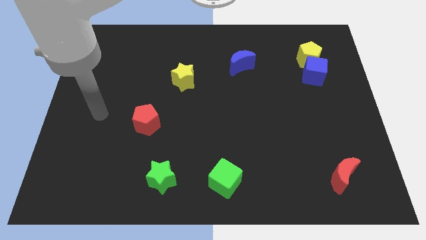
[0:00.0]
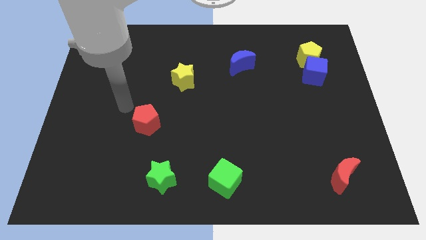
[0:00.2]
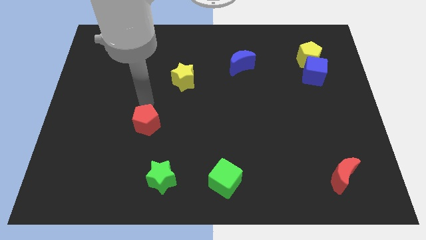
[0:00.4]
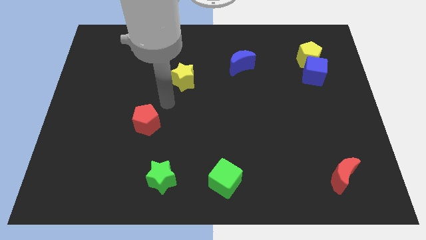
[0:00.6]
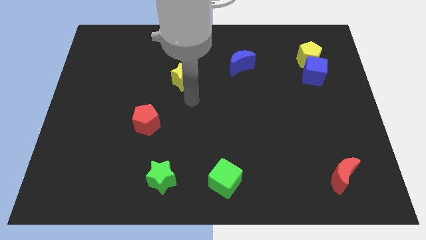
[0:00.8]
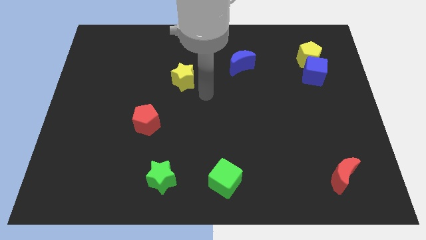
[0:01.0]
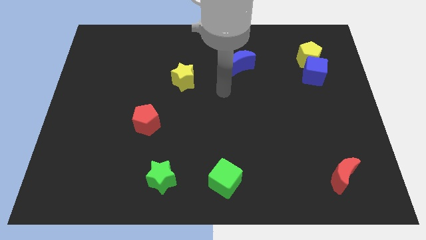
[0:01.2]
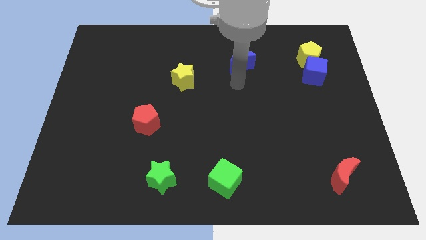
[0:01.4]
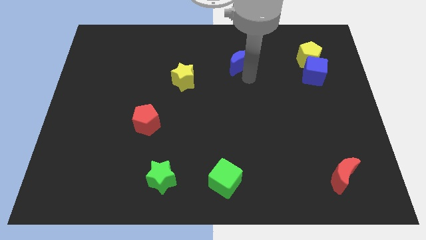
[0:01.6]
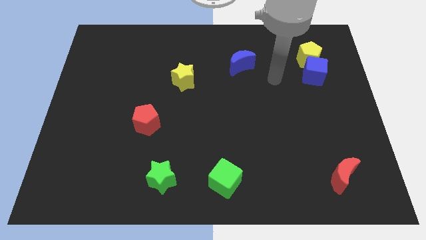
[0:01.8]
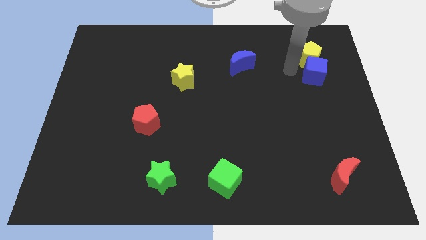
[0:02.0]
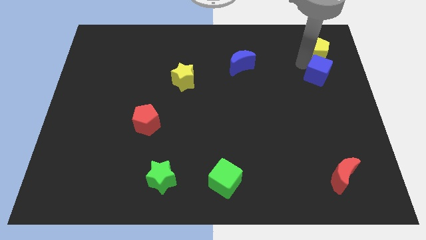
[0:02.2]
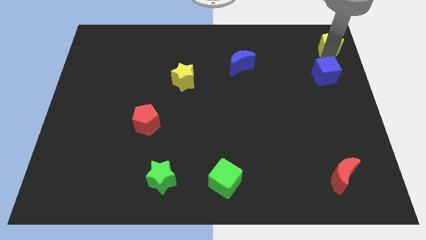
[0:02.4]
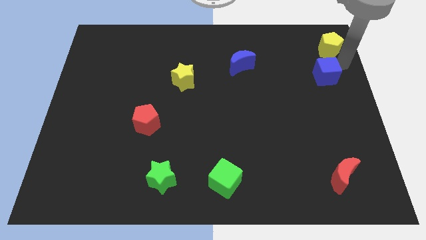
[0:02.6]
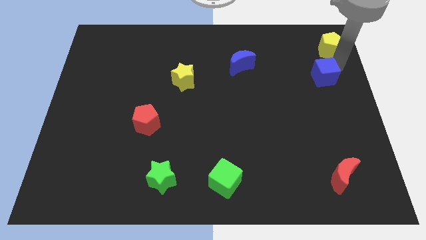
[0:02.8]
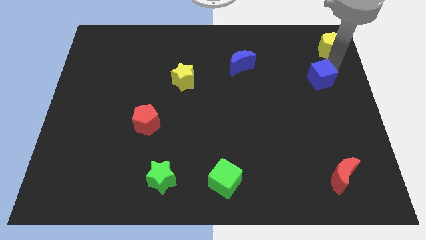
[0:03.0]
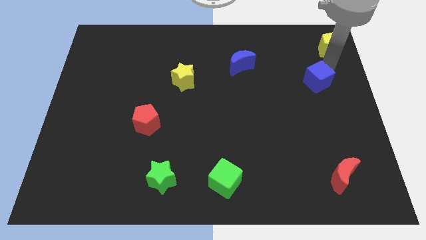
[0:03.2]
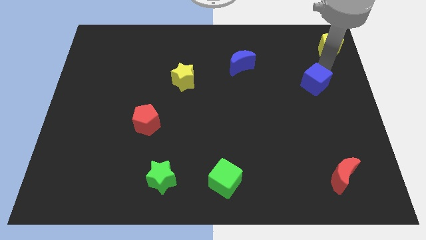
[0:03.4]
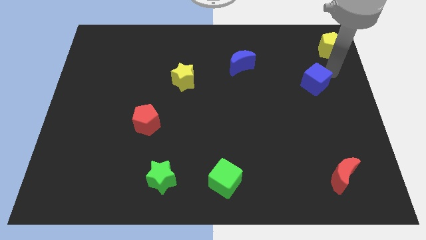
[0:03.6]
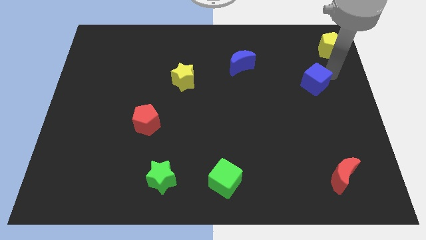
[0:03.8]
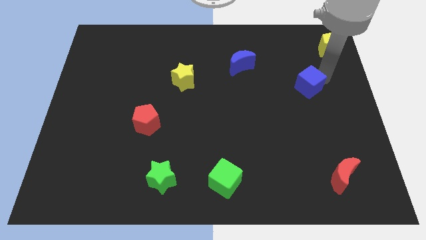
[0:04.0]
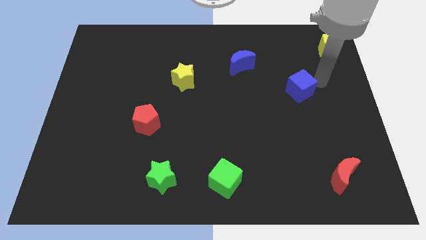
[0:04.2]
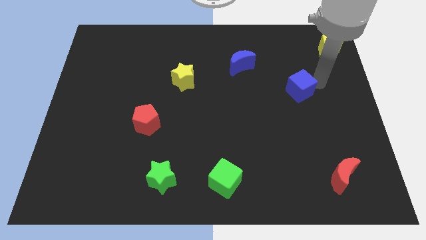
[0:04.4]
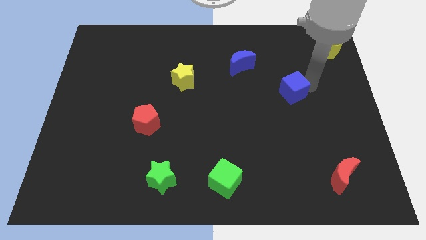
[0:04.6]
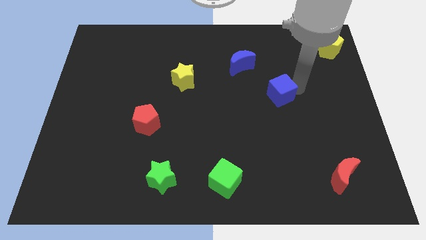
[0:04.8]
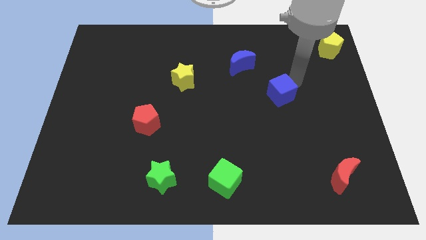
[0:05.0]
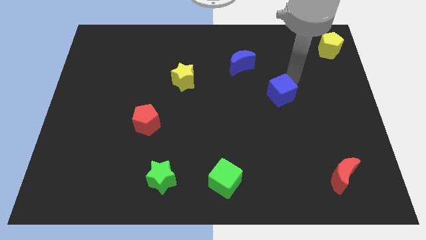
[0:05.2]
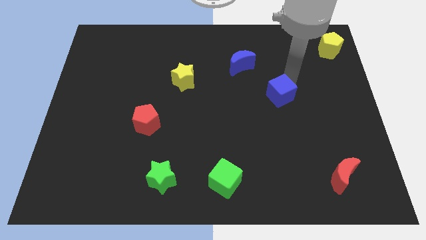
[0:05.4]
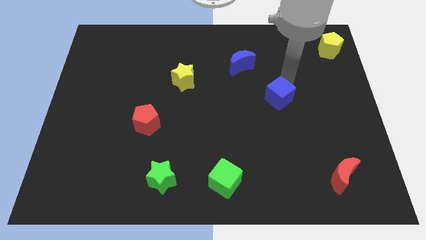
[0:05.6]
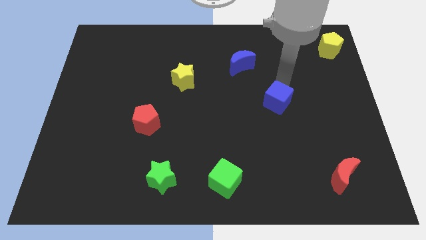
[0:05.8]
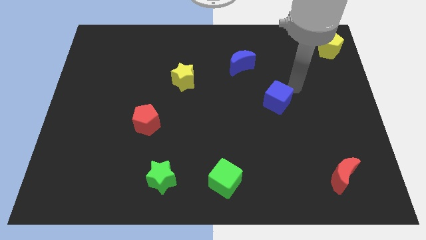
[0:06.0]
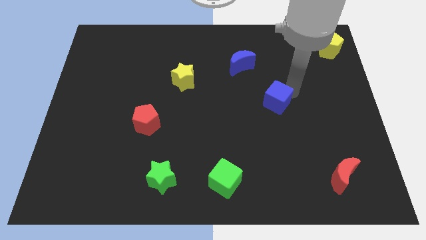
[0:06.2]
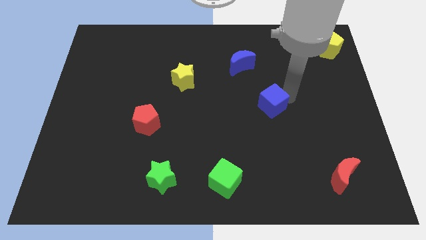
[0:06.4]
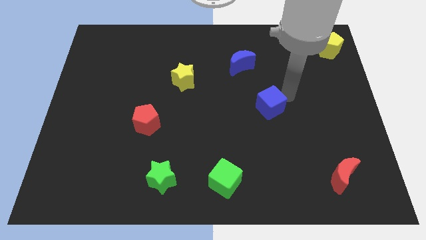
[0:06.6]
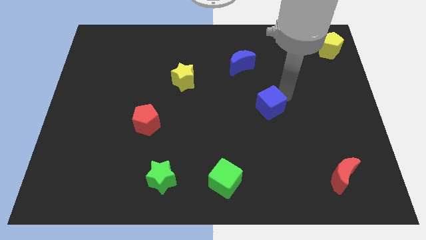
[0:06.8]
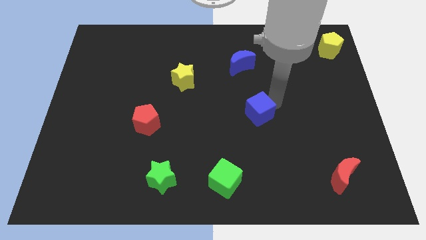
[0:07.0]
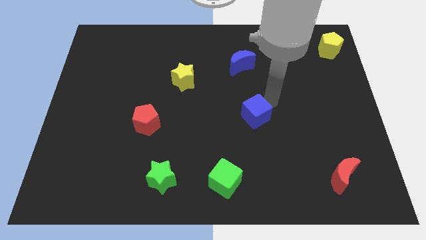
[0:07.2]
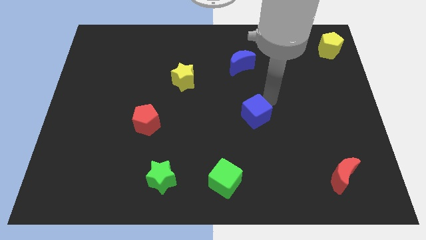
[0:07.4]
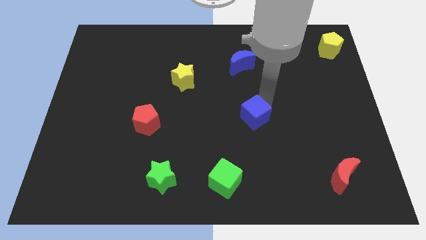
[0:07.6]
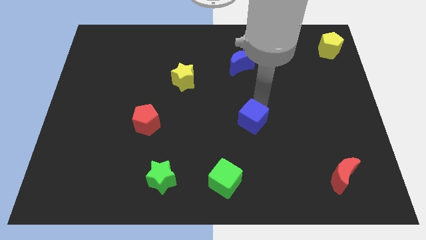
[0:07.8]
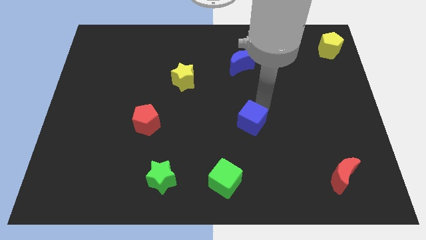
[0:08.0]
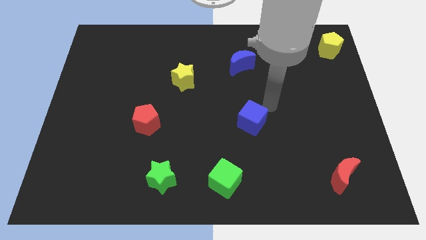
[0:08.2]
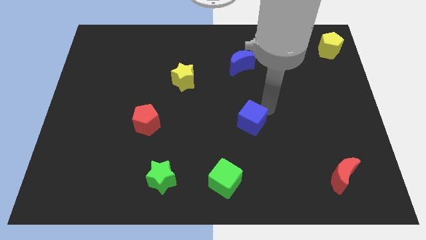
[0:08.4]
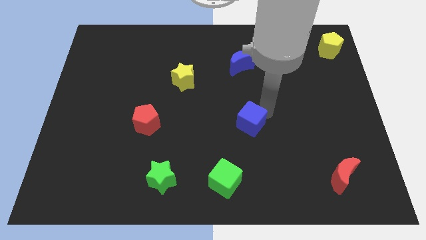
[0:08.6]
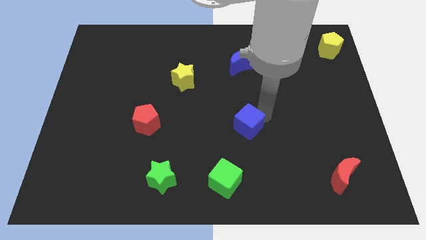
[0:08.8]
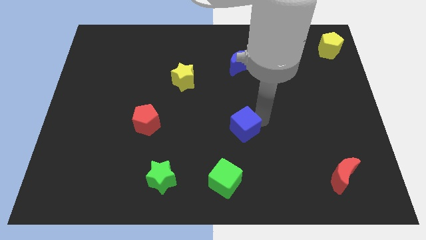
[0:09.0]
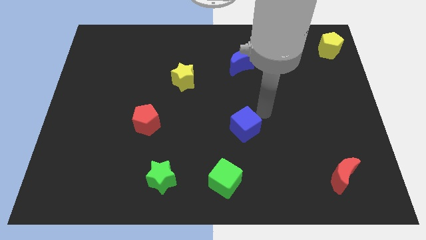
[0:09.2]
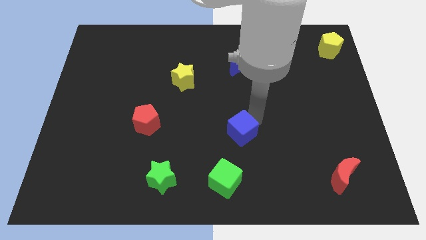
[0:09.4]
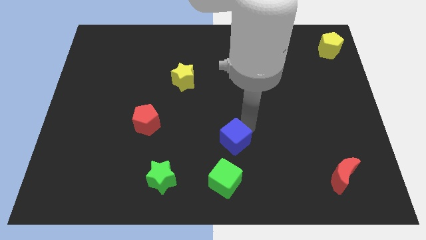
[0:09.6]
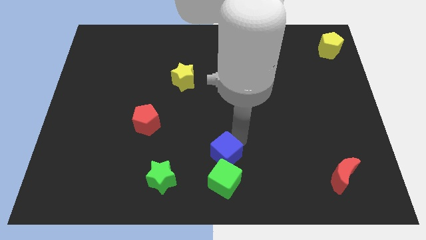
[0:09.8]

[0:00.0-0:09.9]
put the blue cube diagonally up and to the left of the green cube

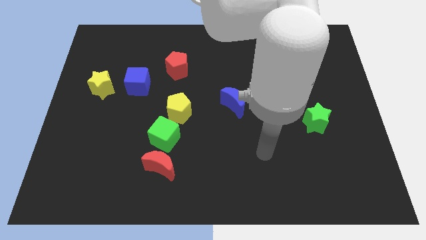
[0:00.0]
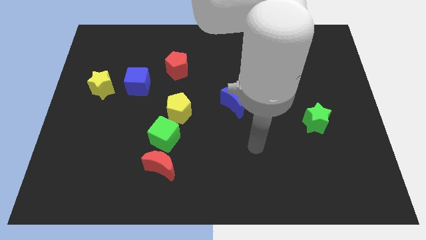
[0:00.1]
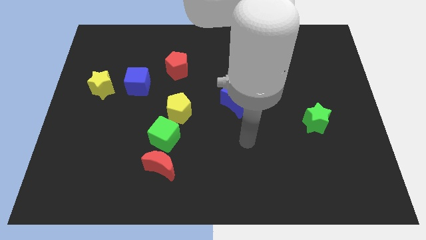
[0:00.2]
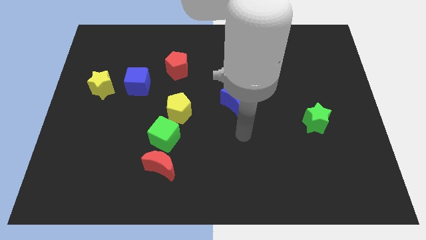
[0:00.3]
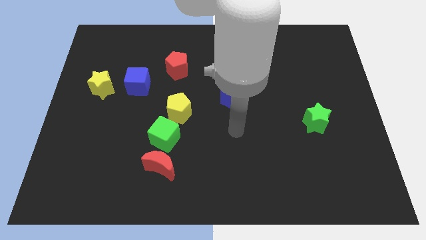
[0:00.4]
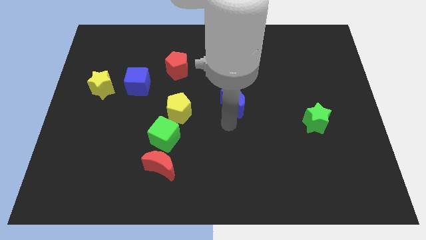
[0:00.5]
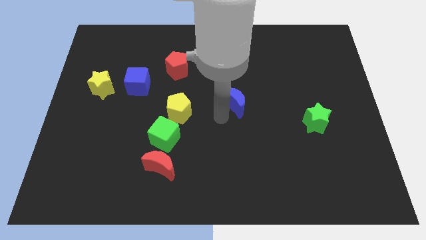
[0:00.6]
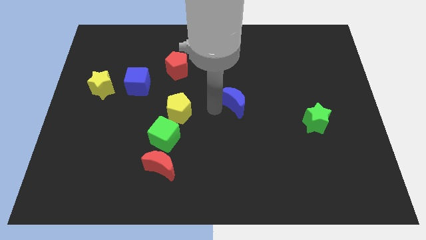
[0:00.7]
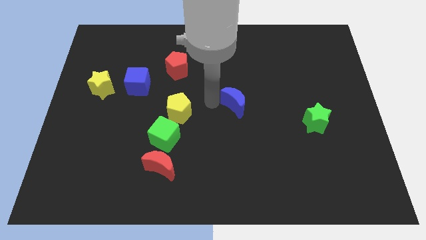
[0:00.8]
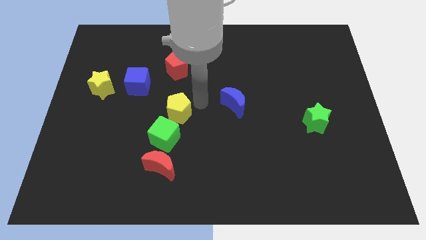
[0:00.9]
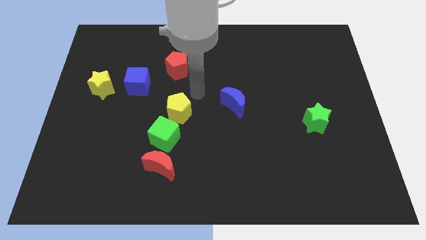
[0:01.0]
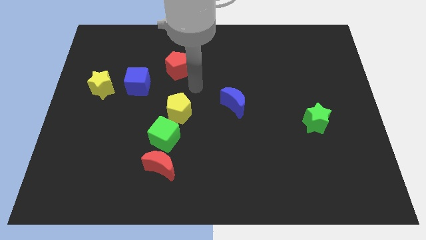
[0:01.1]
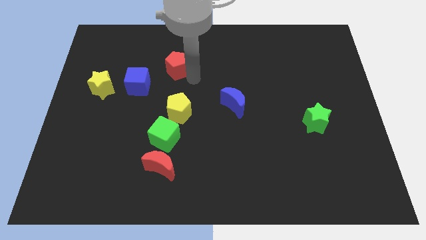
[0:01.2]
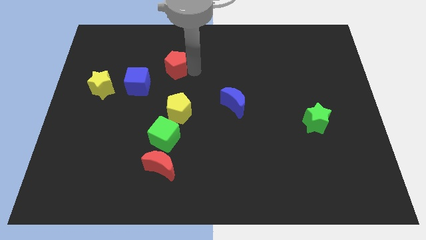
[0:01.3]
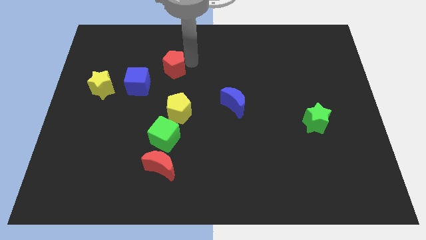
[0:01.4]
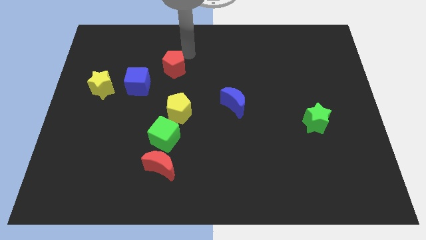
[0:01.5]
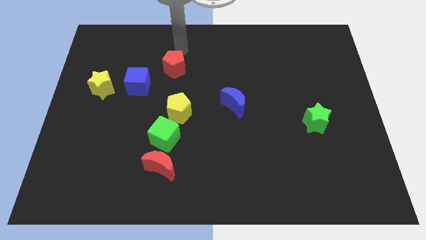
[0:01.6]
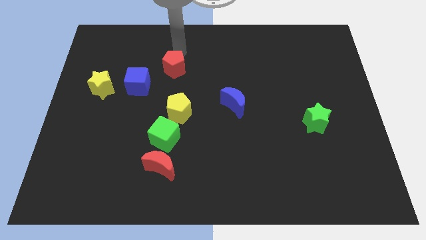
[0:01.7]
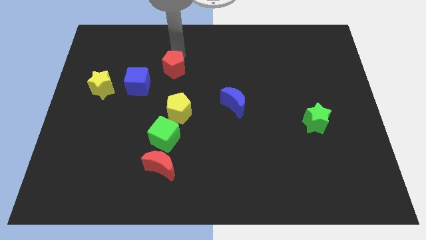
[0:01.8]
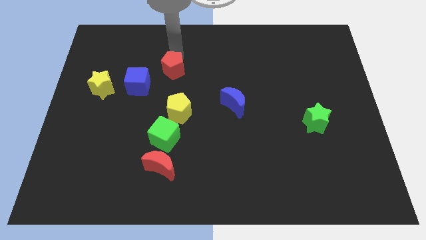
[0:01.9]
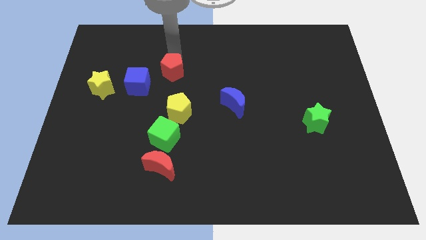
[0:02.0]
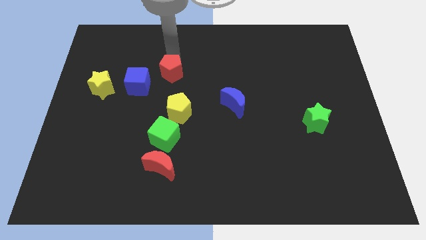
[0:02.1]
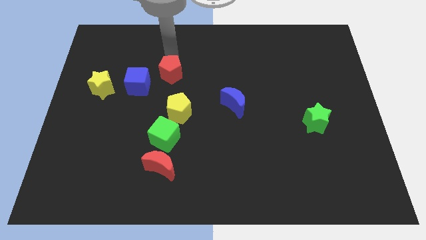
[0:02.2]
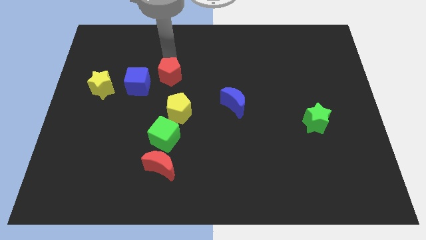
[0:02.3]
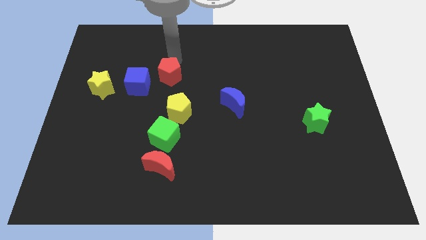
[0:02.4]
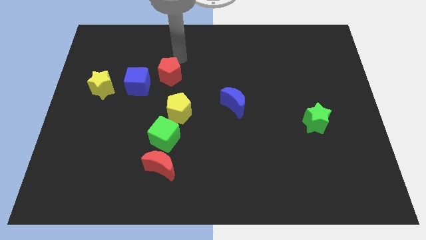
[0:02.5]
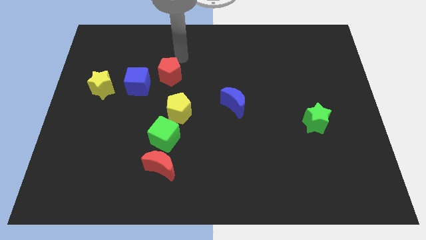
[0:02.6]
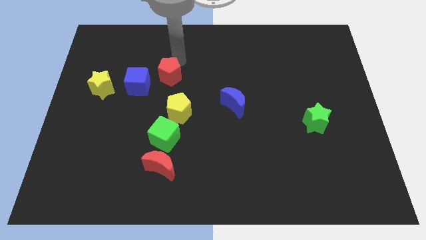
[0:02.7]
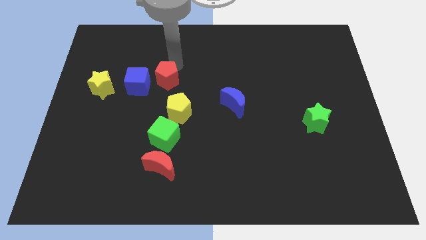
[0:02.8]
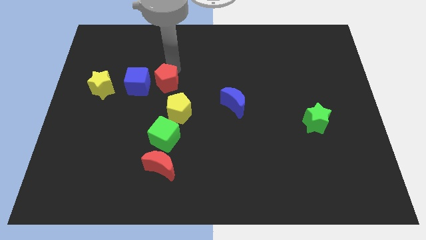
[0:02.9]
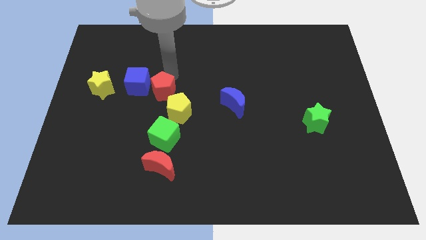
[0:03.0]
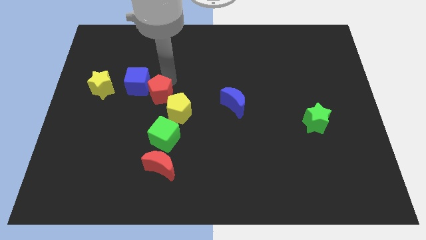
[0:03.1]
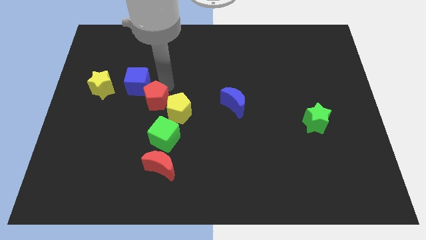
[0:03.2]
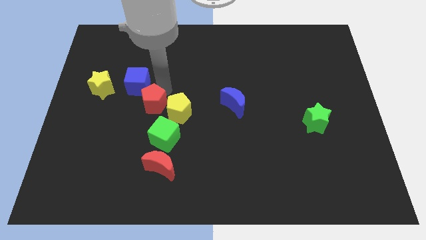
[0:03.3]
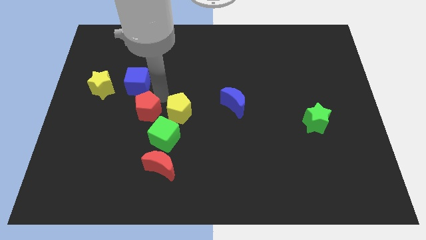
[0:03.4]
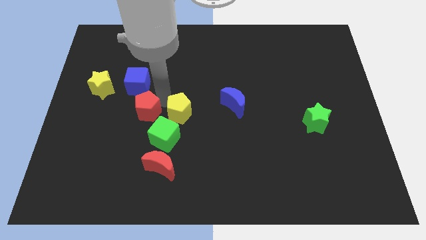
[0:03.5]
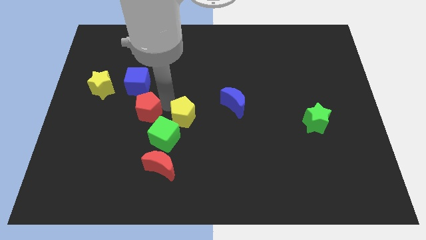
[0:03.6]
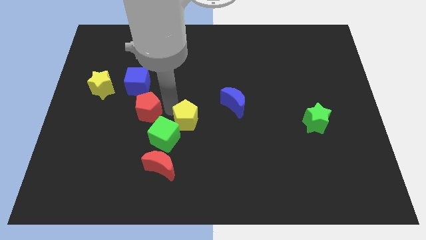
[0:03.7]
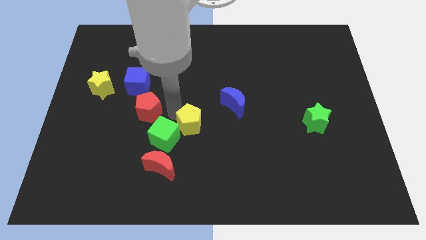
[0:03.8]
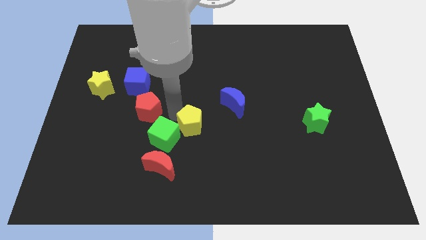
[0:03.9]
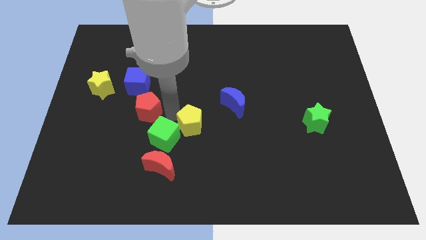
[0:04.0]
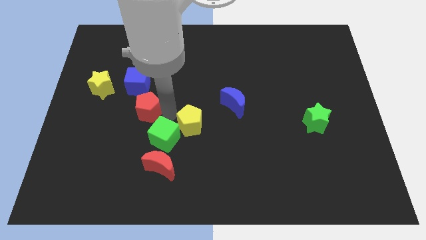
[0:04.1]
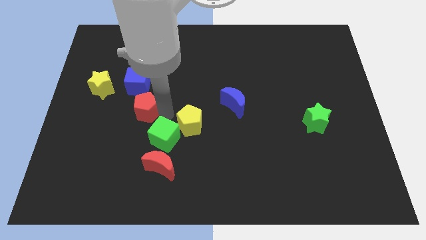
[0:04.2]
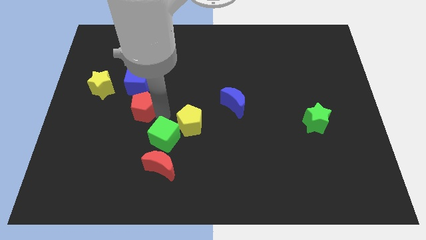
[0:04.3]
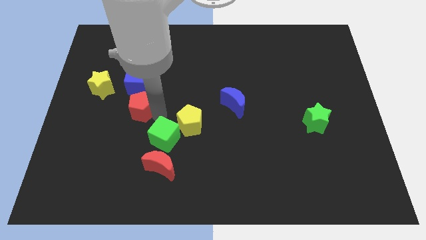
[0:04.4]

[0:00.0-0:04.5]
move the red pentagon diagonally down and to the right of the yellow star
